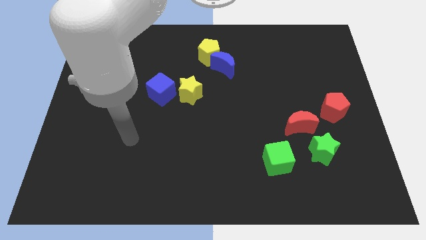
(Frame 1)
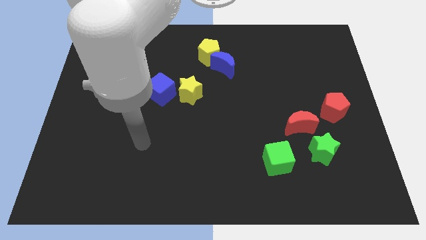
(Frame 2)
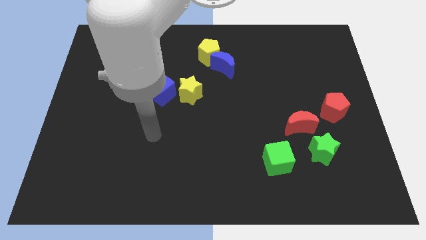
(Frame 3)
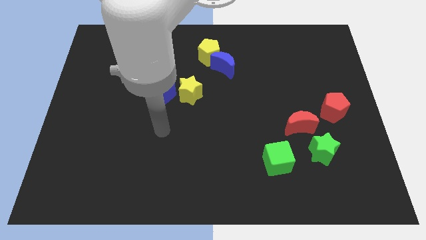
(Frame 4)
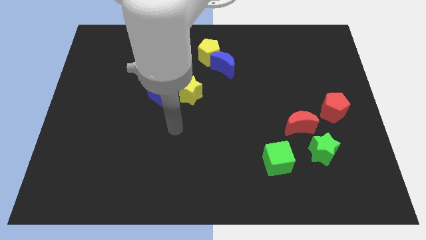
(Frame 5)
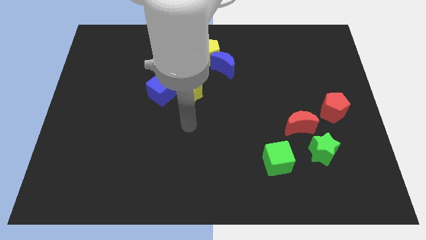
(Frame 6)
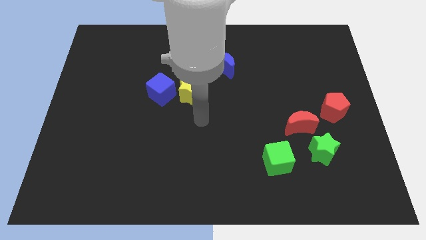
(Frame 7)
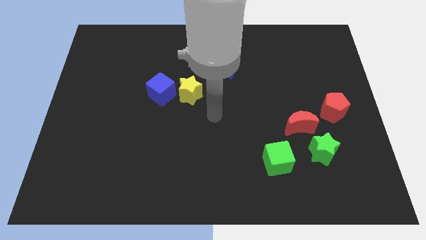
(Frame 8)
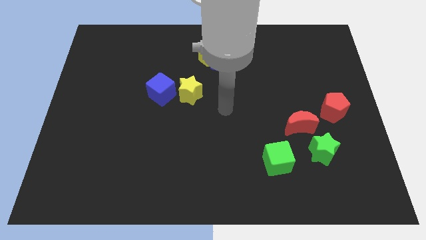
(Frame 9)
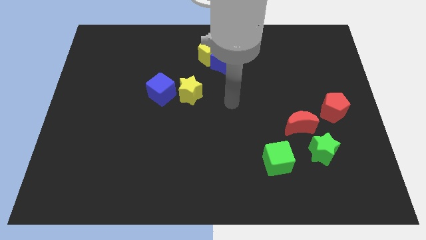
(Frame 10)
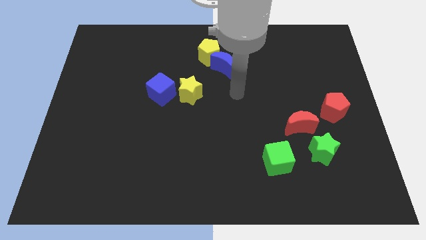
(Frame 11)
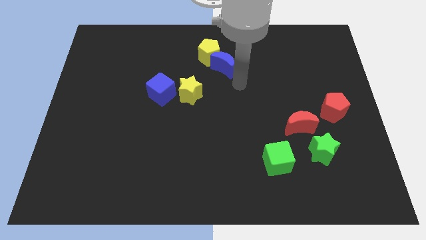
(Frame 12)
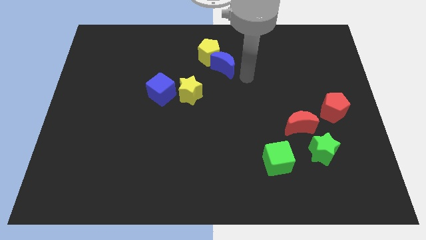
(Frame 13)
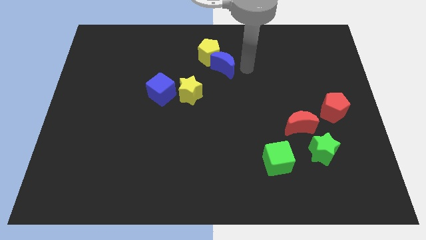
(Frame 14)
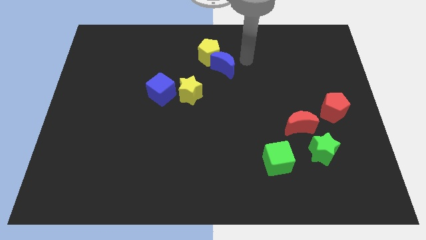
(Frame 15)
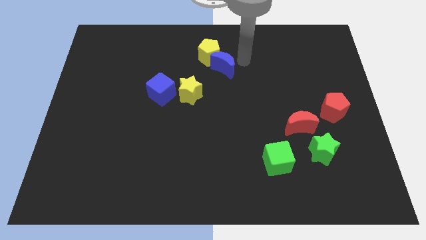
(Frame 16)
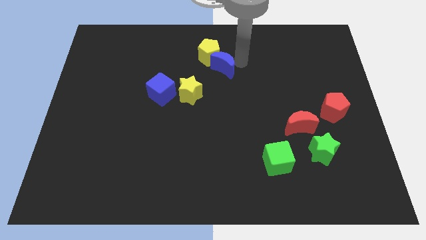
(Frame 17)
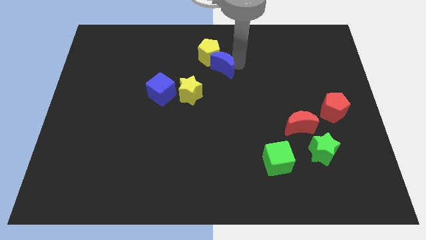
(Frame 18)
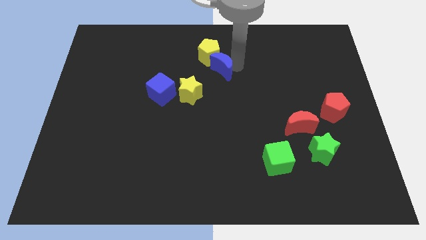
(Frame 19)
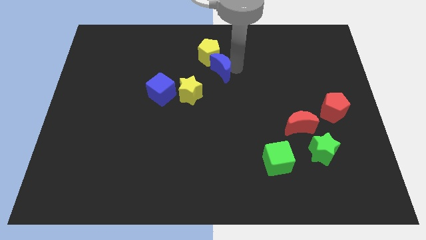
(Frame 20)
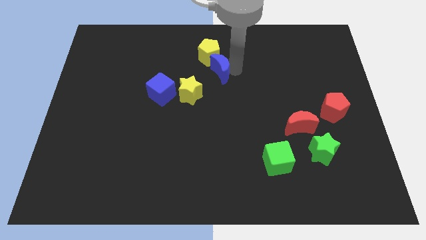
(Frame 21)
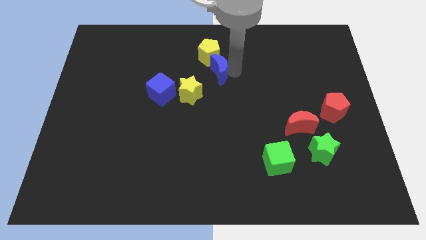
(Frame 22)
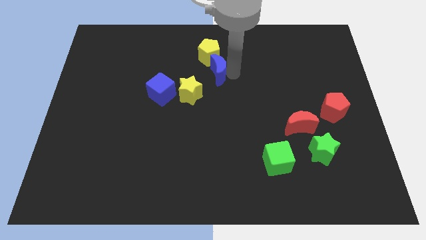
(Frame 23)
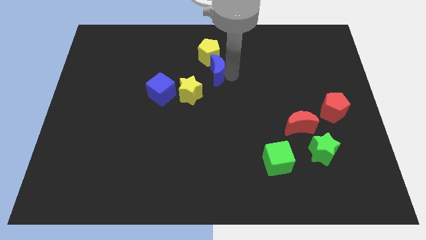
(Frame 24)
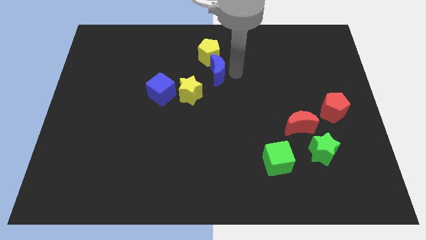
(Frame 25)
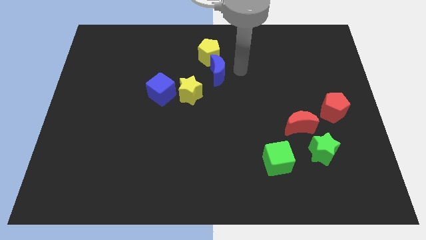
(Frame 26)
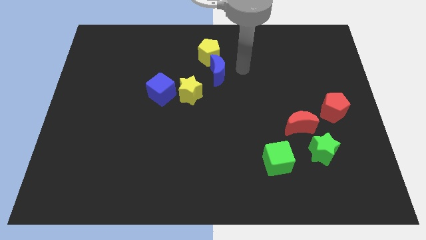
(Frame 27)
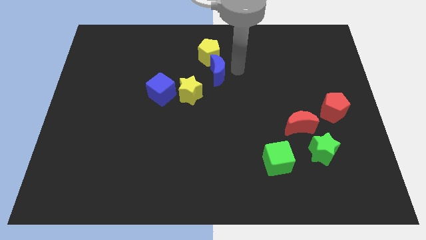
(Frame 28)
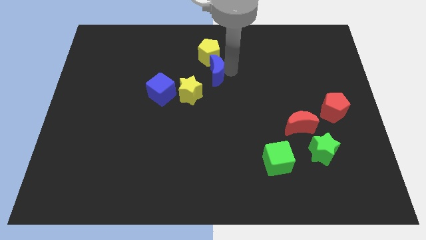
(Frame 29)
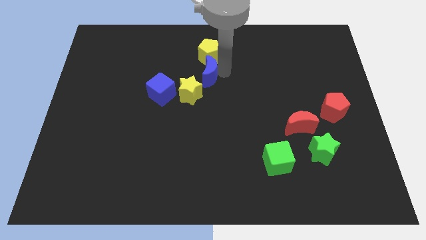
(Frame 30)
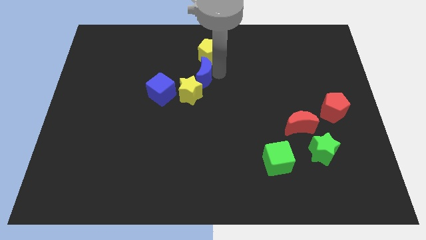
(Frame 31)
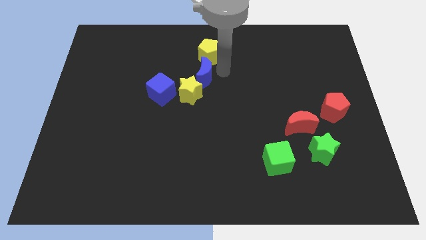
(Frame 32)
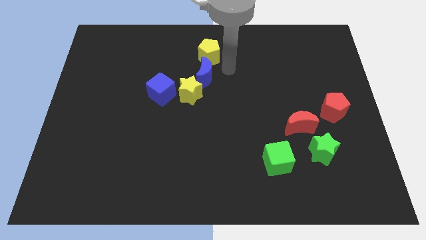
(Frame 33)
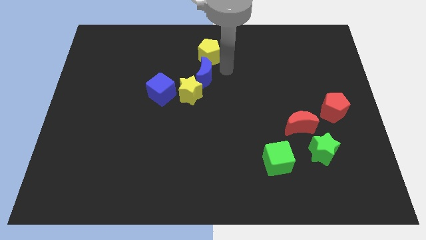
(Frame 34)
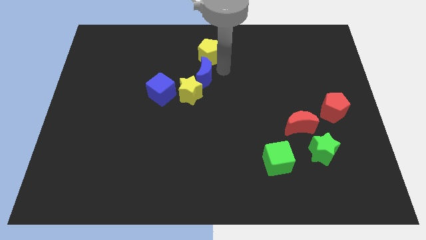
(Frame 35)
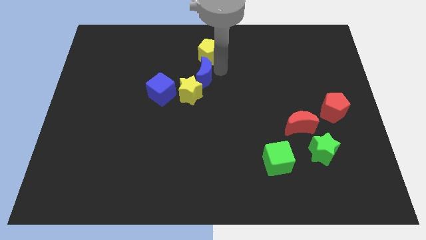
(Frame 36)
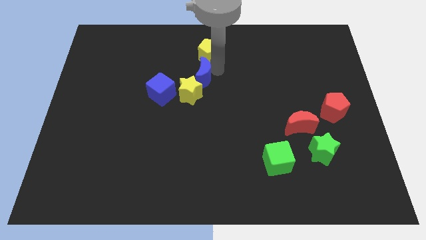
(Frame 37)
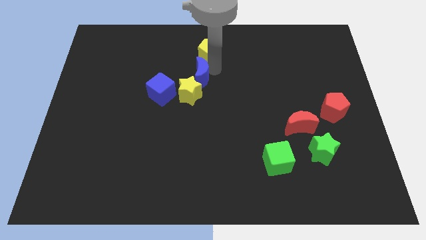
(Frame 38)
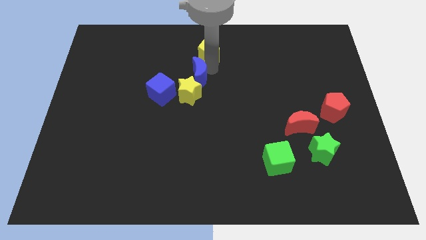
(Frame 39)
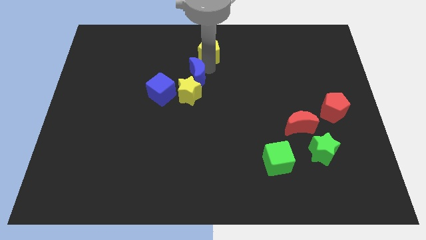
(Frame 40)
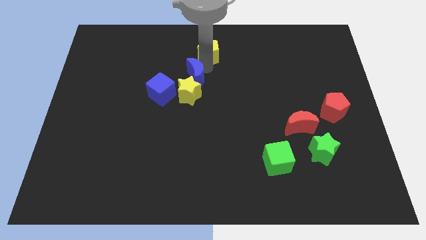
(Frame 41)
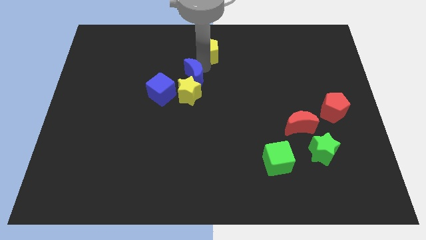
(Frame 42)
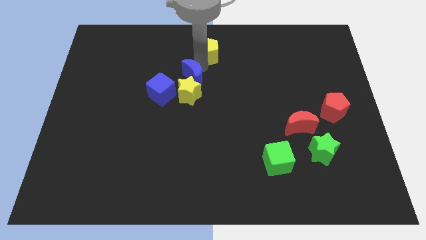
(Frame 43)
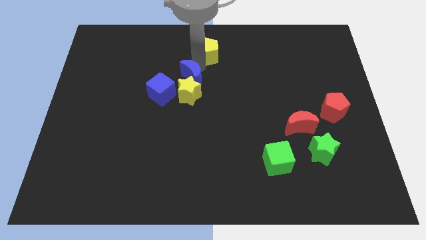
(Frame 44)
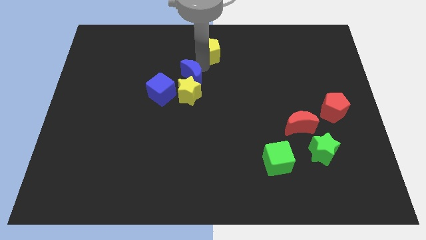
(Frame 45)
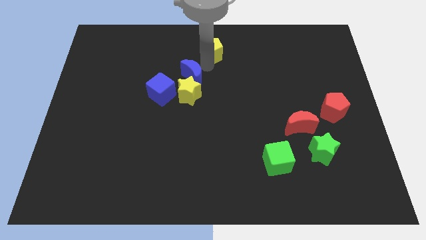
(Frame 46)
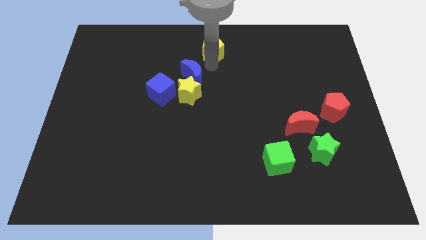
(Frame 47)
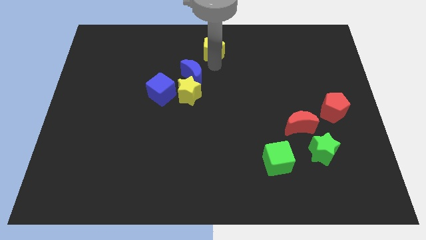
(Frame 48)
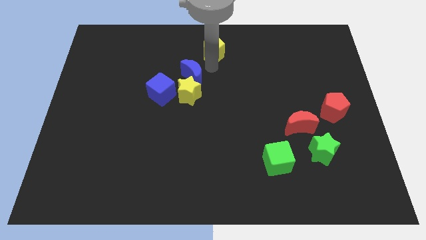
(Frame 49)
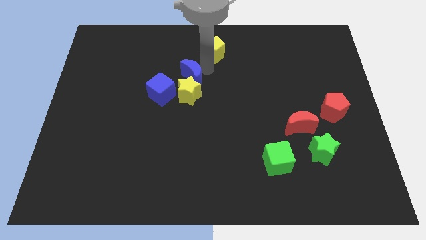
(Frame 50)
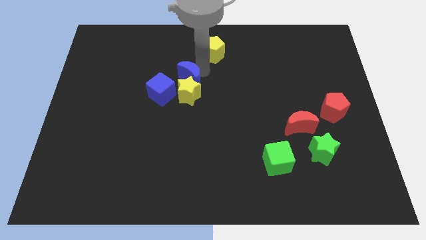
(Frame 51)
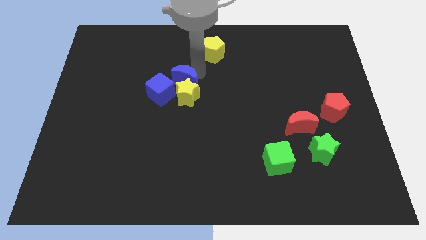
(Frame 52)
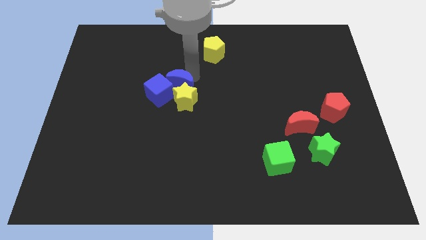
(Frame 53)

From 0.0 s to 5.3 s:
push the blue moon to the blue cube

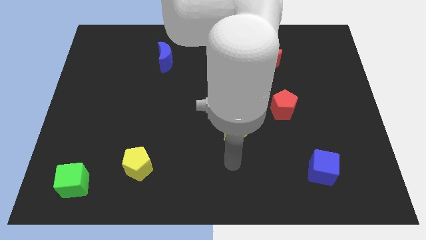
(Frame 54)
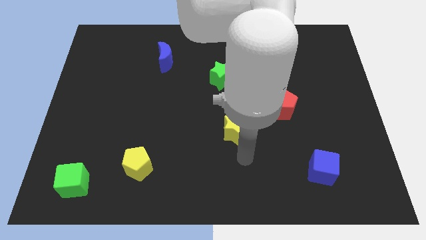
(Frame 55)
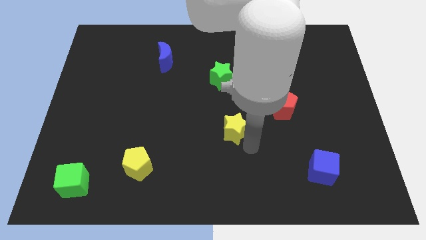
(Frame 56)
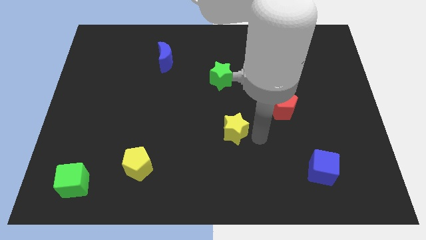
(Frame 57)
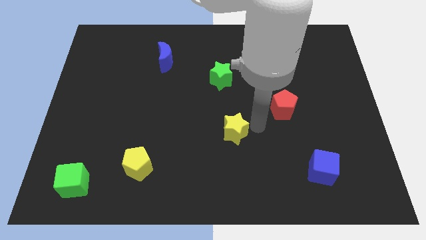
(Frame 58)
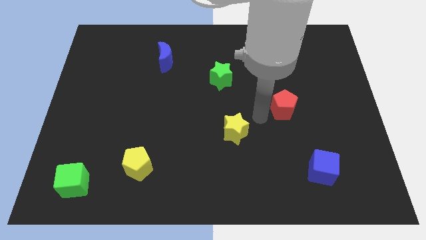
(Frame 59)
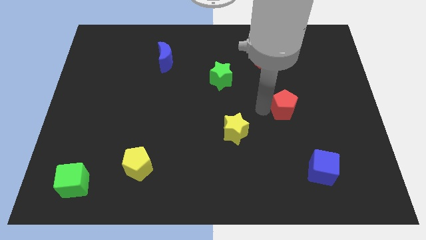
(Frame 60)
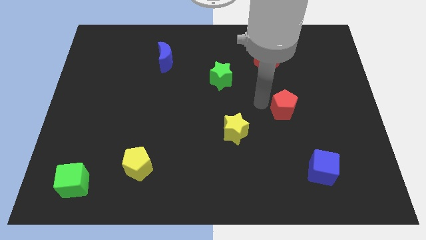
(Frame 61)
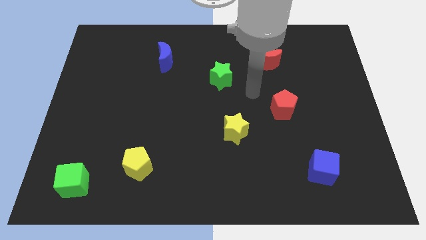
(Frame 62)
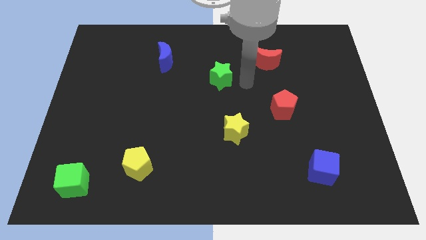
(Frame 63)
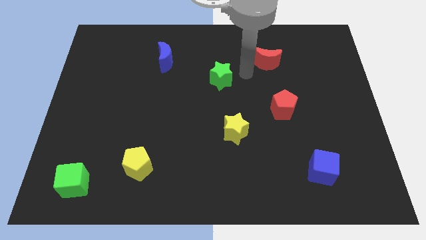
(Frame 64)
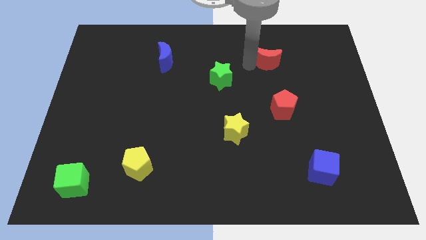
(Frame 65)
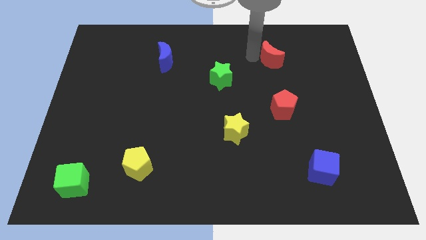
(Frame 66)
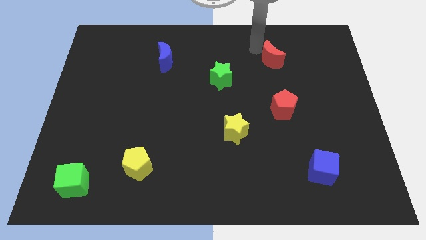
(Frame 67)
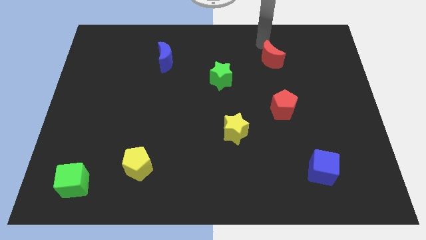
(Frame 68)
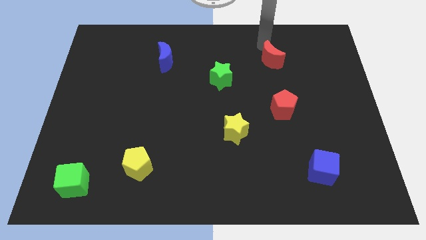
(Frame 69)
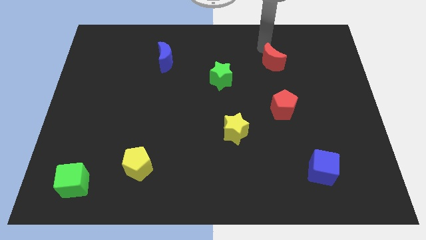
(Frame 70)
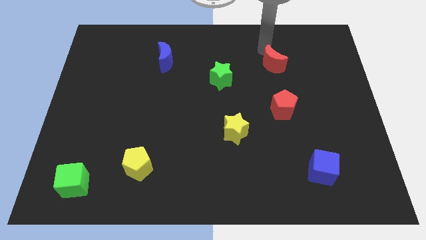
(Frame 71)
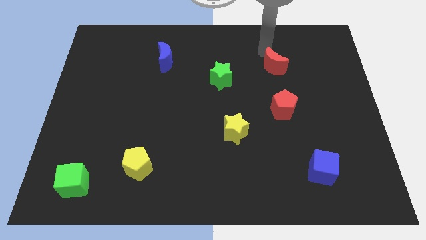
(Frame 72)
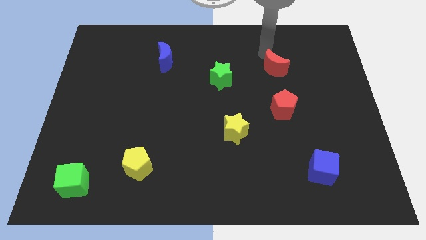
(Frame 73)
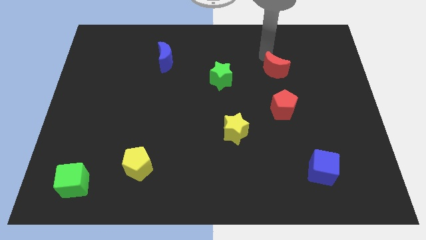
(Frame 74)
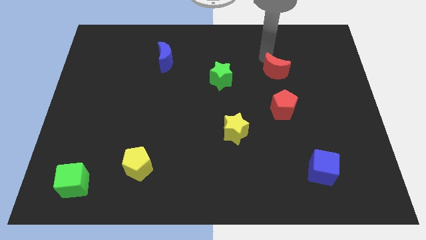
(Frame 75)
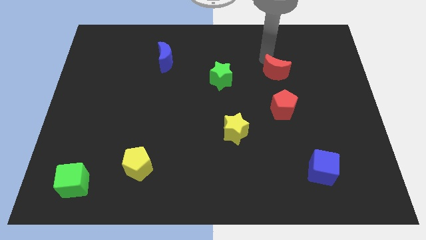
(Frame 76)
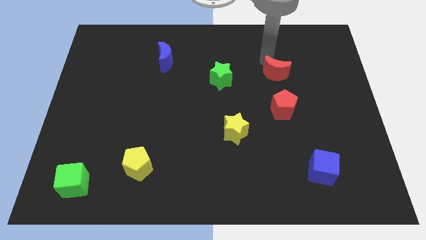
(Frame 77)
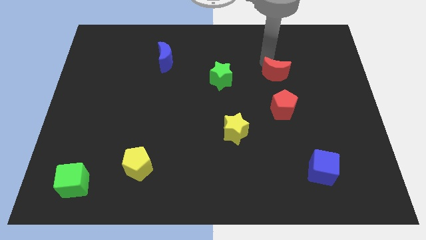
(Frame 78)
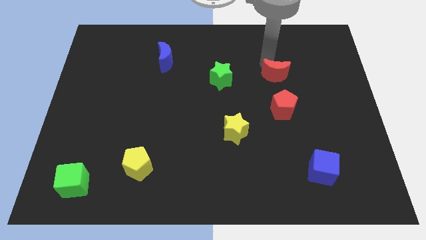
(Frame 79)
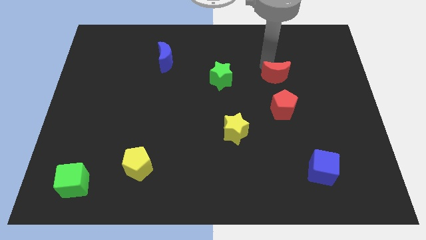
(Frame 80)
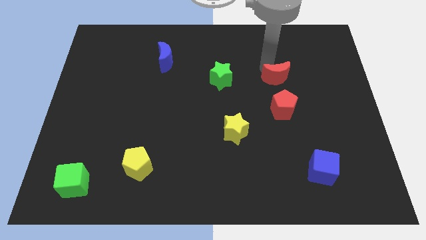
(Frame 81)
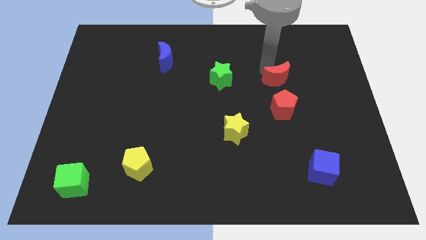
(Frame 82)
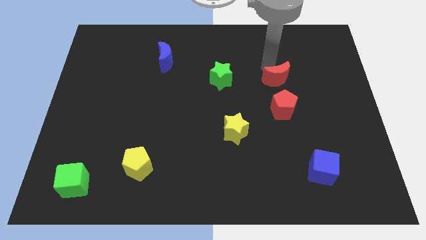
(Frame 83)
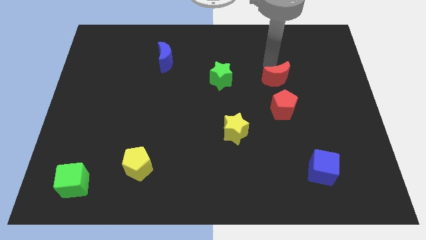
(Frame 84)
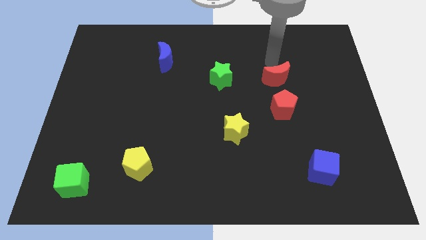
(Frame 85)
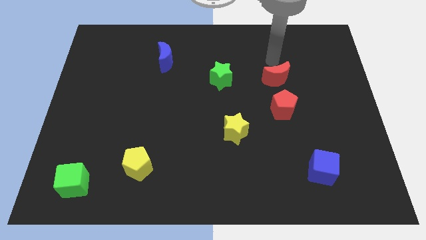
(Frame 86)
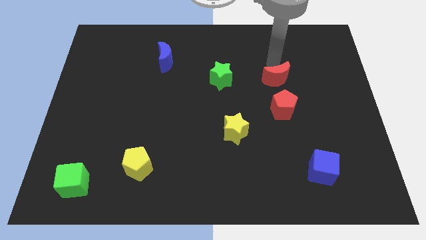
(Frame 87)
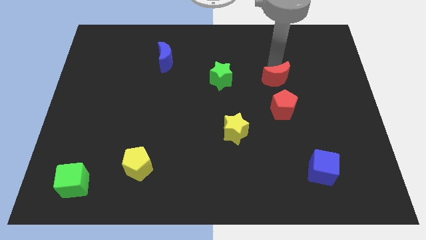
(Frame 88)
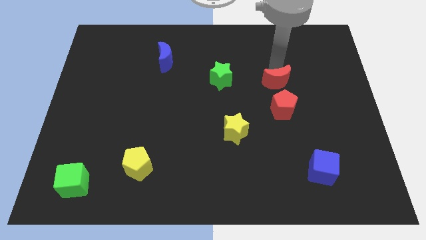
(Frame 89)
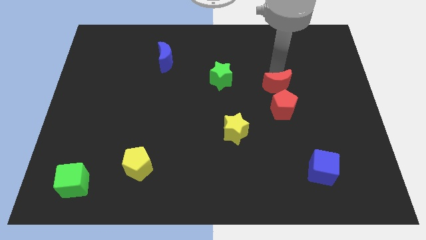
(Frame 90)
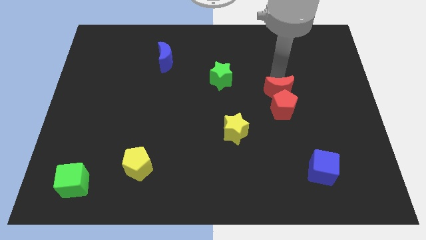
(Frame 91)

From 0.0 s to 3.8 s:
put the red moon close to the red pentagon
